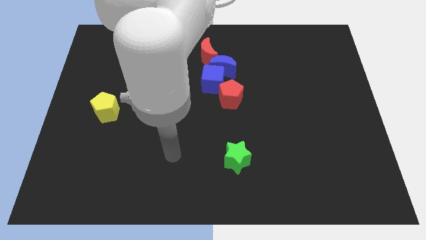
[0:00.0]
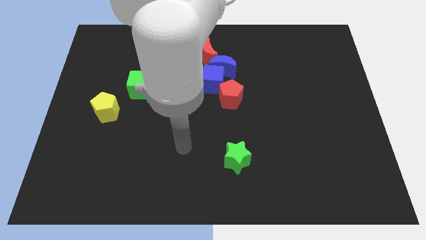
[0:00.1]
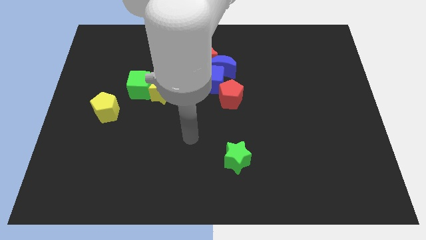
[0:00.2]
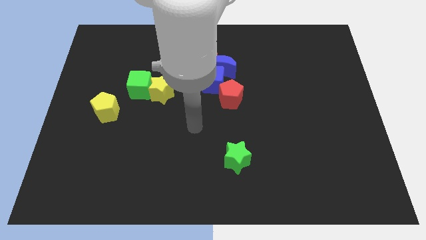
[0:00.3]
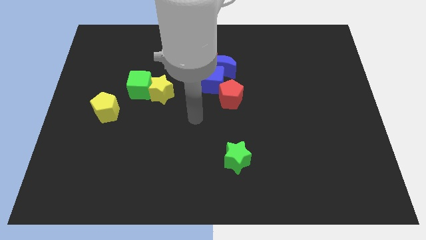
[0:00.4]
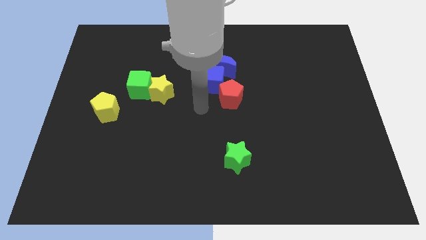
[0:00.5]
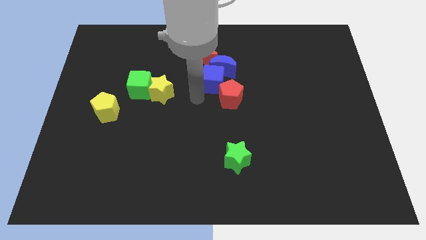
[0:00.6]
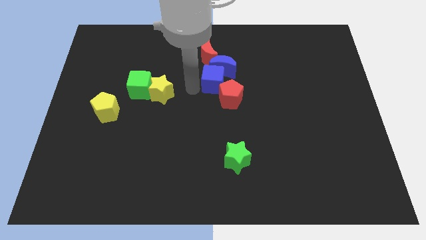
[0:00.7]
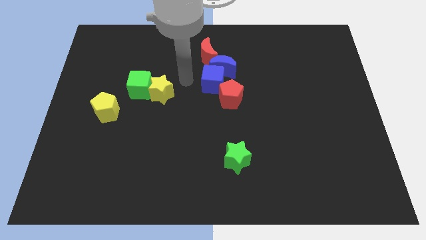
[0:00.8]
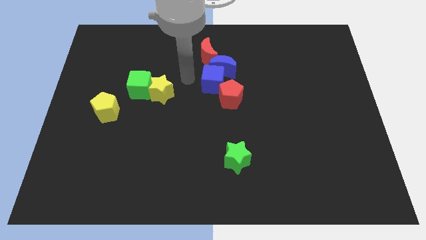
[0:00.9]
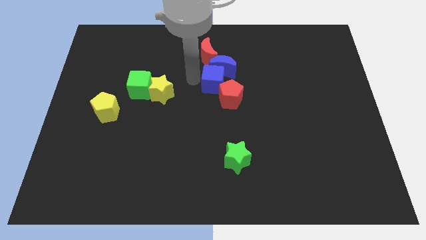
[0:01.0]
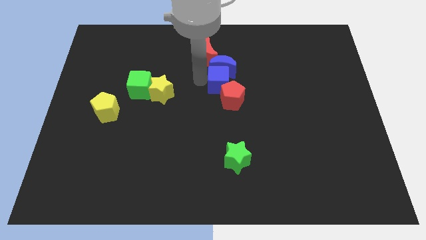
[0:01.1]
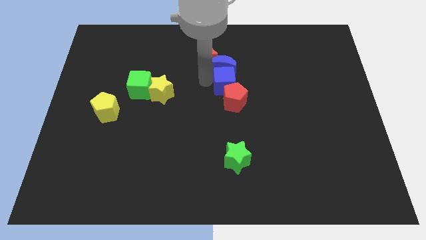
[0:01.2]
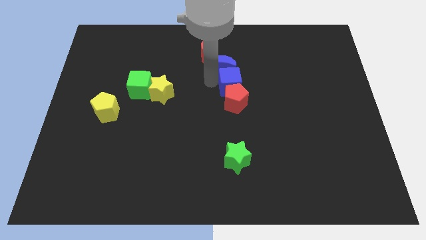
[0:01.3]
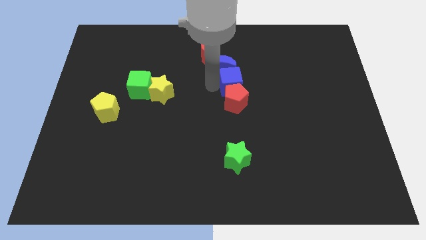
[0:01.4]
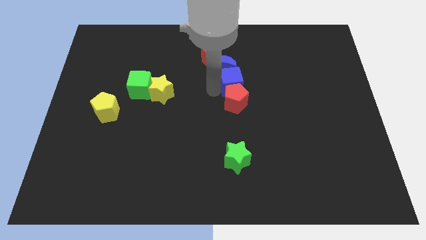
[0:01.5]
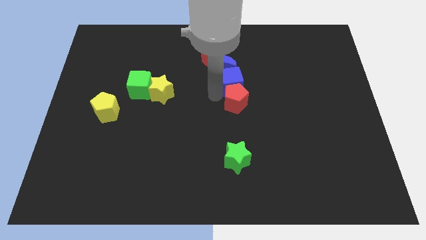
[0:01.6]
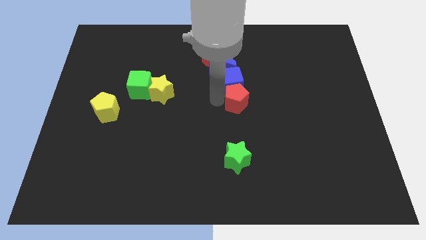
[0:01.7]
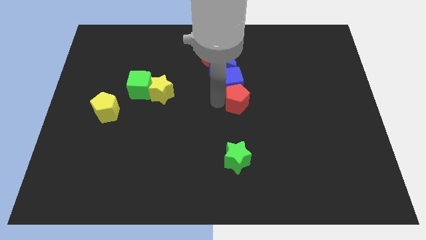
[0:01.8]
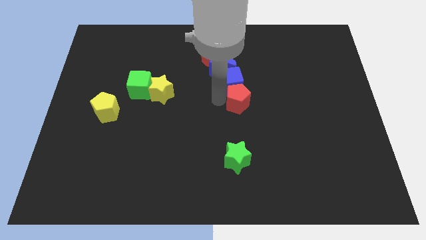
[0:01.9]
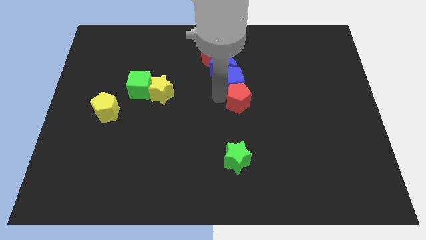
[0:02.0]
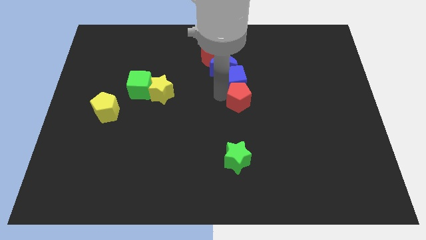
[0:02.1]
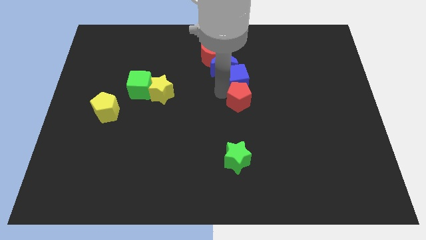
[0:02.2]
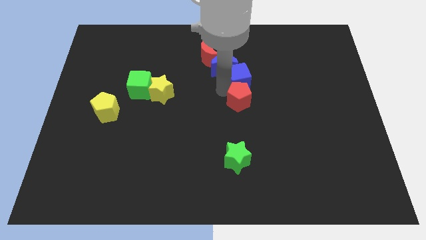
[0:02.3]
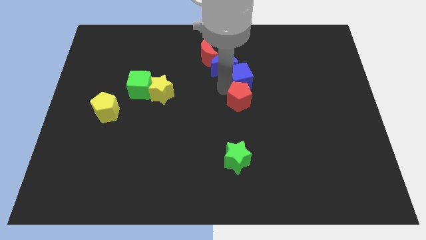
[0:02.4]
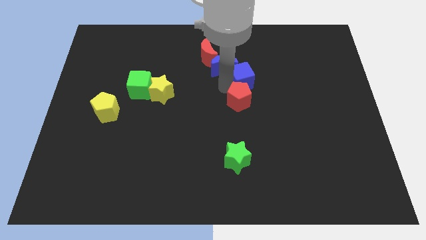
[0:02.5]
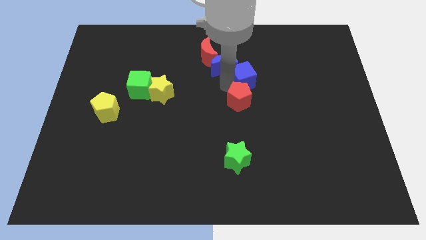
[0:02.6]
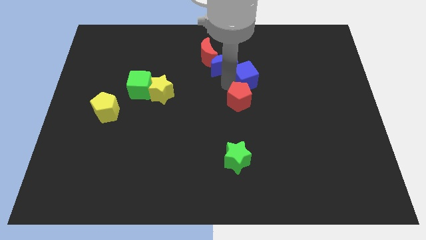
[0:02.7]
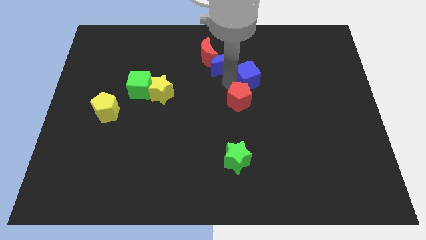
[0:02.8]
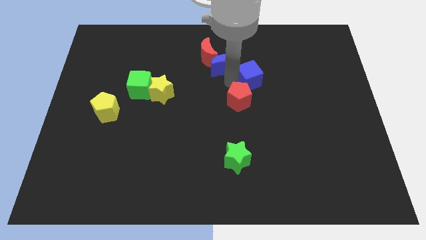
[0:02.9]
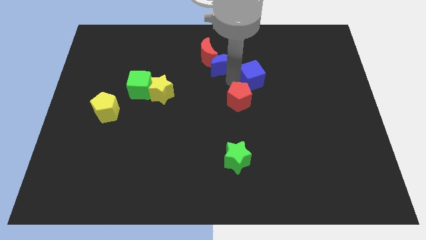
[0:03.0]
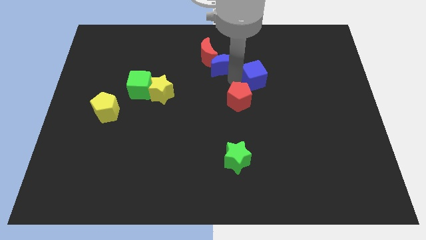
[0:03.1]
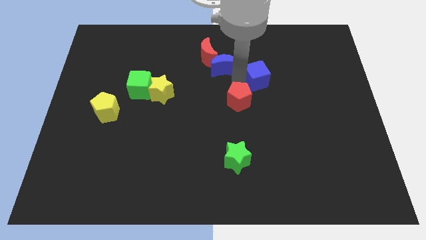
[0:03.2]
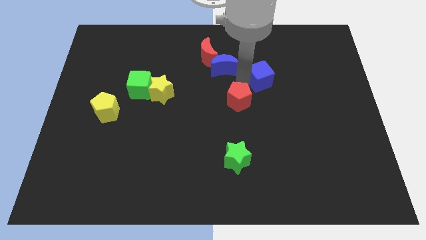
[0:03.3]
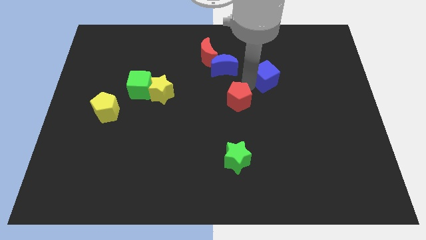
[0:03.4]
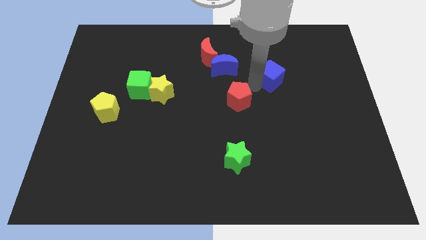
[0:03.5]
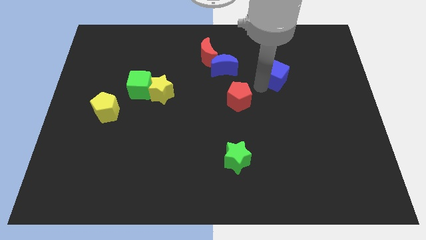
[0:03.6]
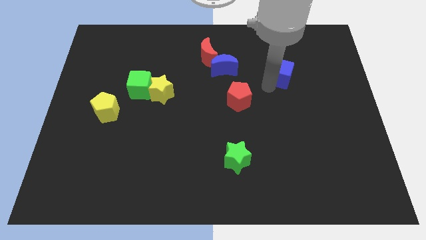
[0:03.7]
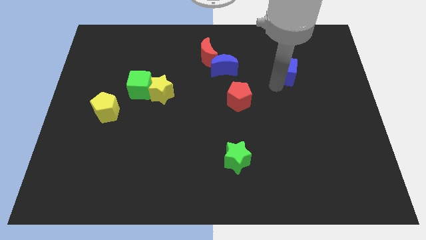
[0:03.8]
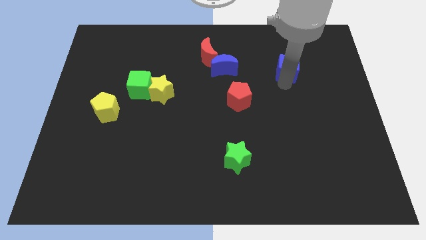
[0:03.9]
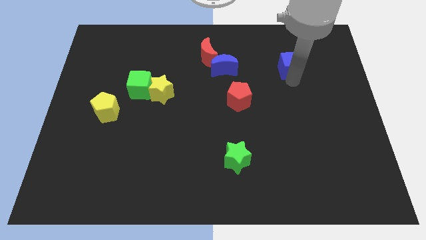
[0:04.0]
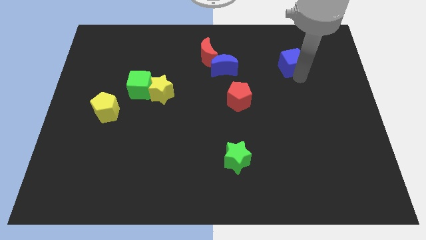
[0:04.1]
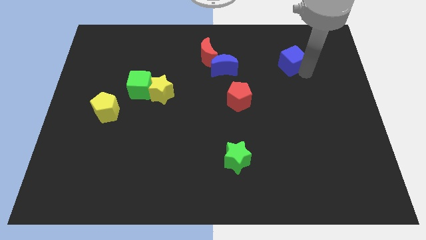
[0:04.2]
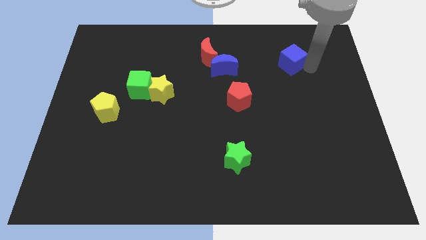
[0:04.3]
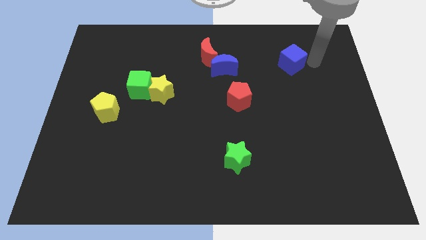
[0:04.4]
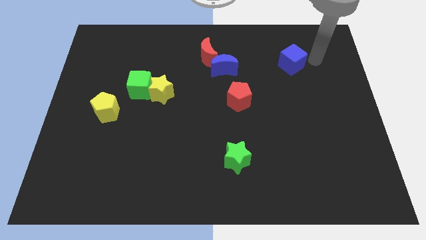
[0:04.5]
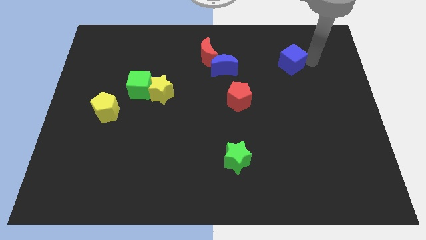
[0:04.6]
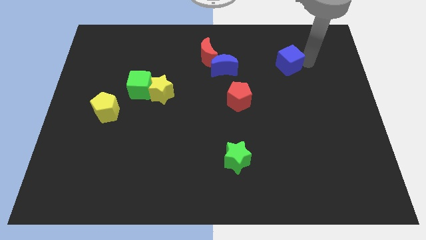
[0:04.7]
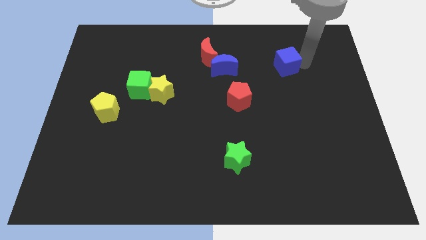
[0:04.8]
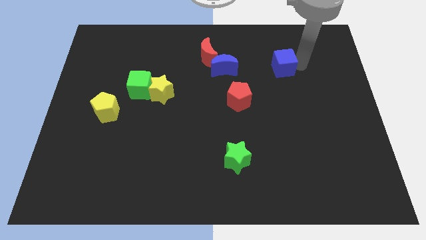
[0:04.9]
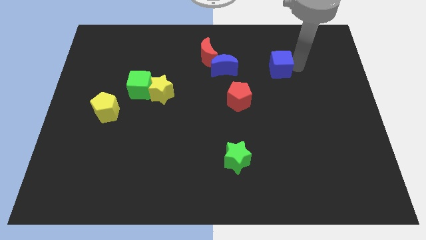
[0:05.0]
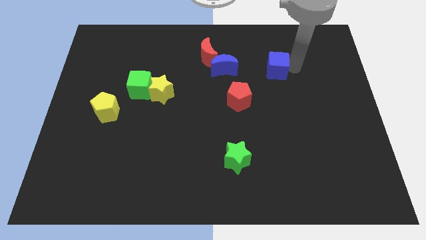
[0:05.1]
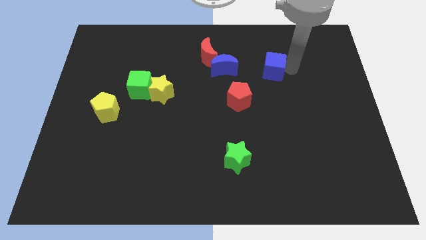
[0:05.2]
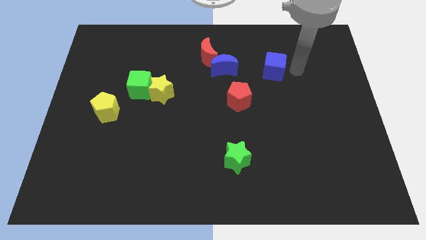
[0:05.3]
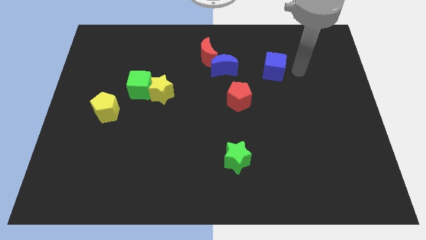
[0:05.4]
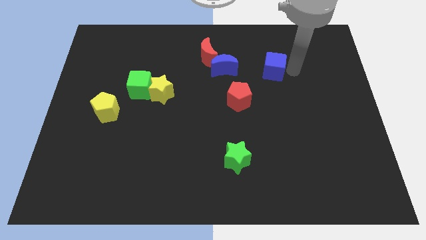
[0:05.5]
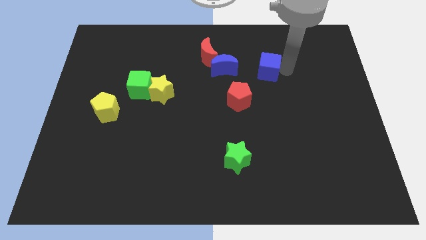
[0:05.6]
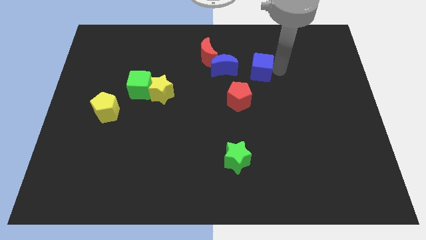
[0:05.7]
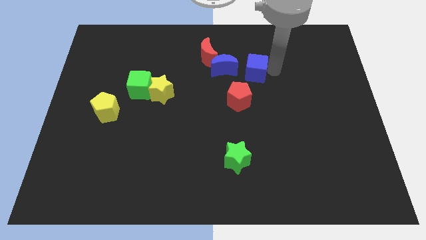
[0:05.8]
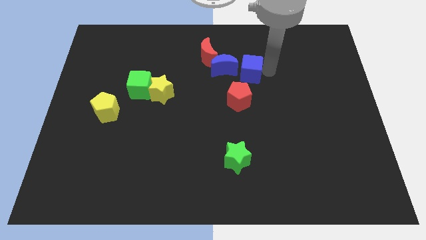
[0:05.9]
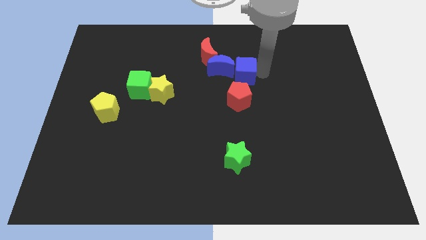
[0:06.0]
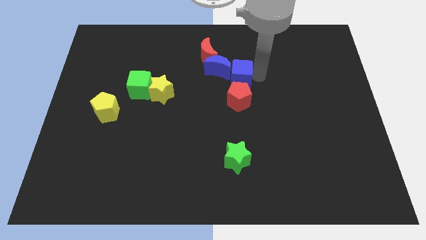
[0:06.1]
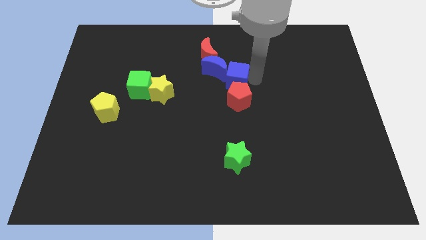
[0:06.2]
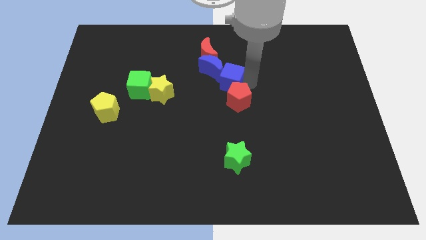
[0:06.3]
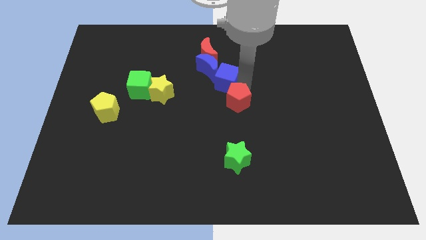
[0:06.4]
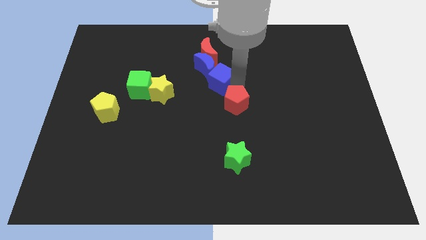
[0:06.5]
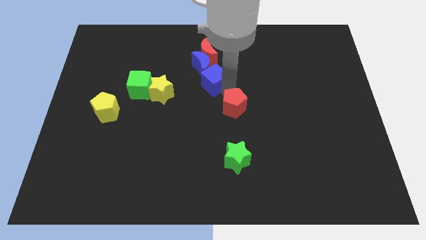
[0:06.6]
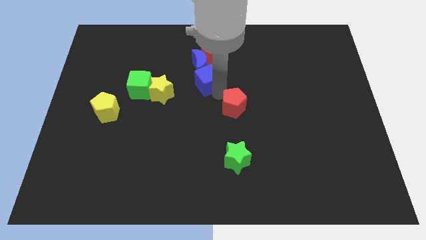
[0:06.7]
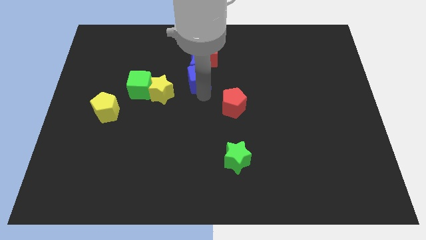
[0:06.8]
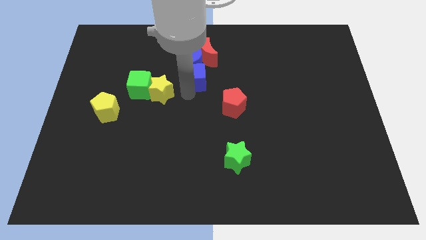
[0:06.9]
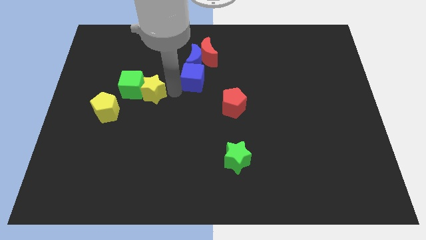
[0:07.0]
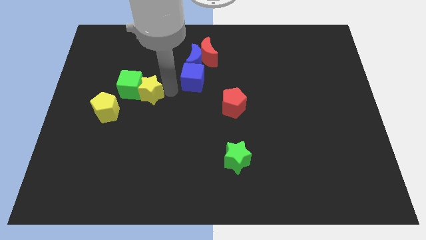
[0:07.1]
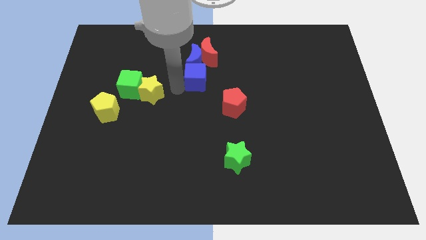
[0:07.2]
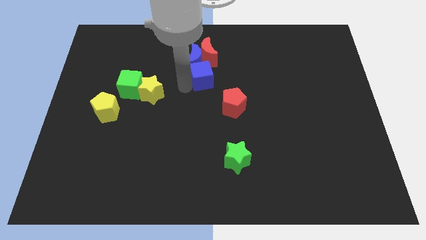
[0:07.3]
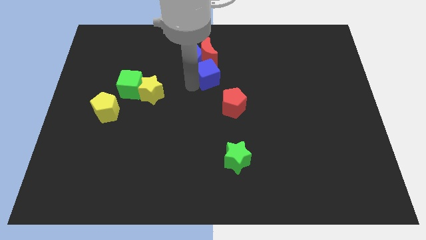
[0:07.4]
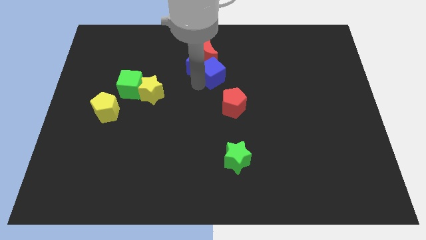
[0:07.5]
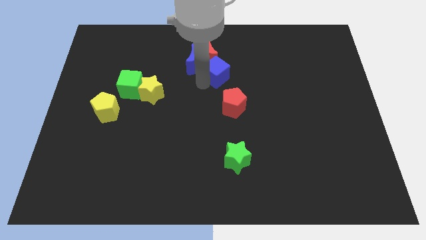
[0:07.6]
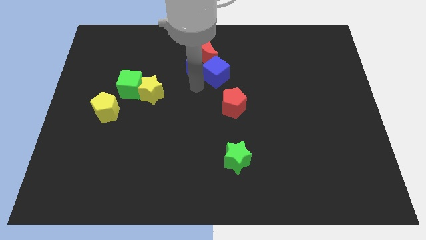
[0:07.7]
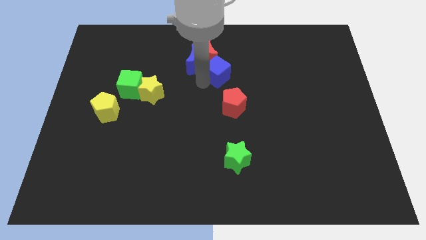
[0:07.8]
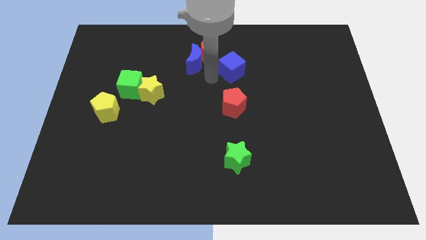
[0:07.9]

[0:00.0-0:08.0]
slide the blue cube to the right side of the red moon
